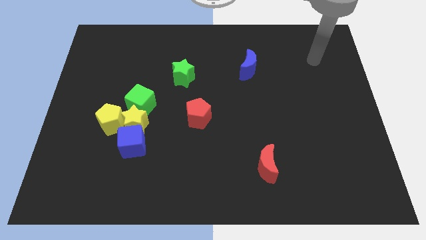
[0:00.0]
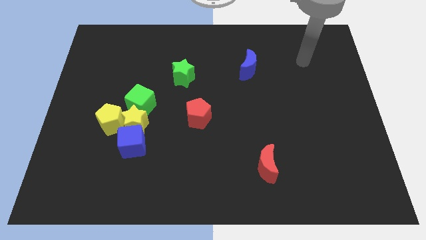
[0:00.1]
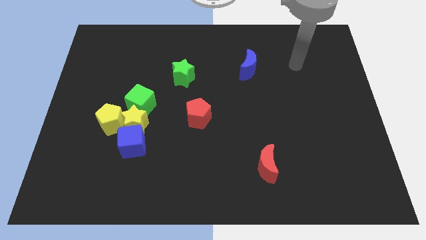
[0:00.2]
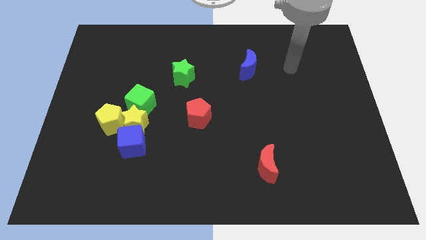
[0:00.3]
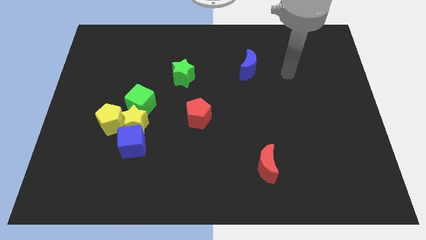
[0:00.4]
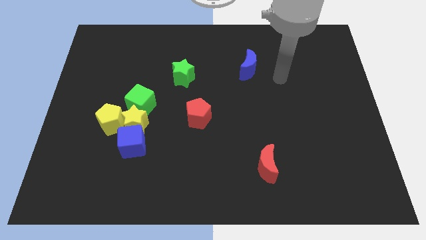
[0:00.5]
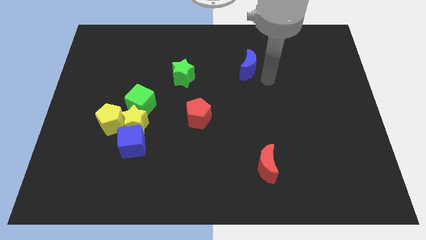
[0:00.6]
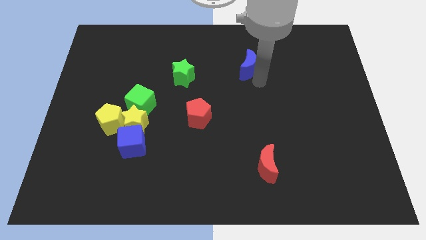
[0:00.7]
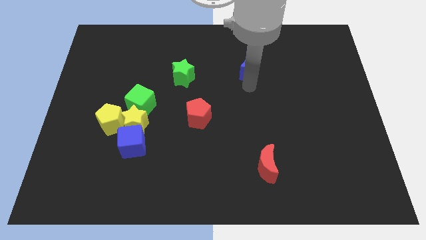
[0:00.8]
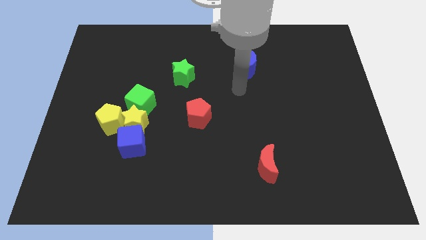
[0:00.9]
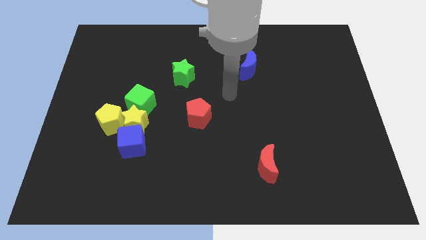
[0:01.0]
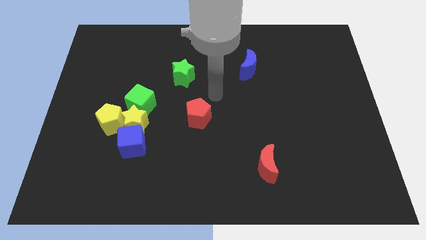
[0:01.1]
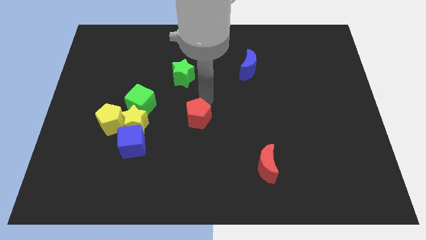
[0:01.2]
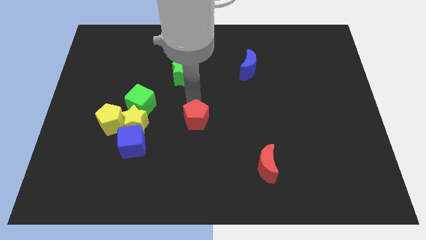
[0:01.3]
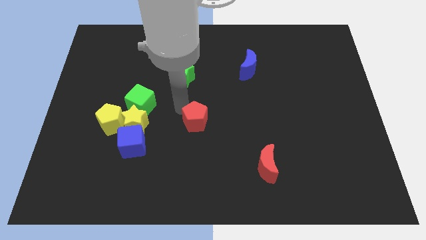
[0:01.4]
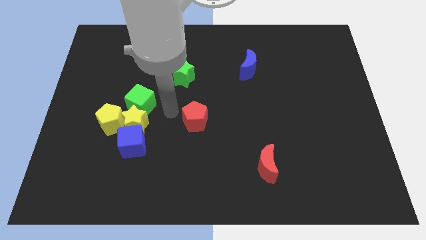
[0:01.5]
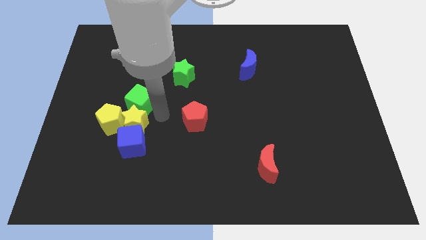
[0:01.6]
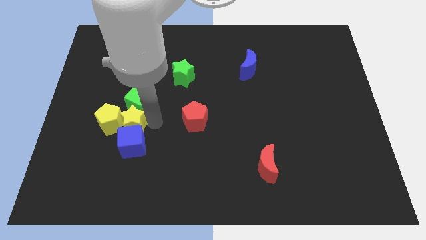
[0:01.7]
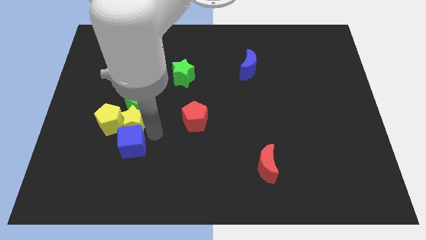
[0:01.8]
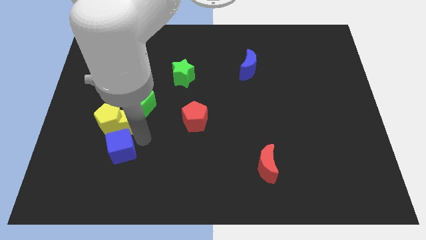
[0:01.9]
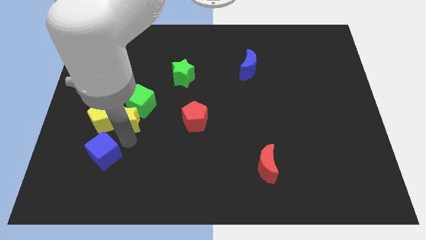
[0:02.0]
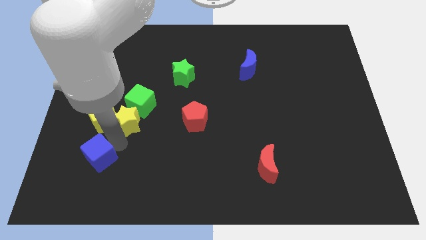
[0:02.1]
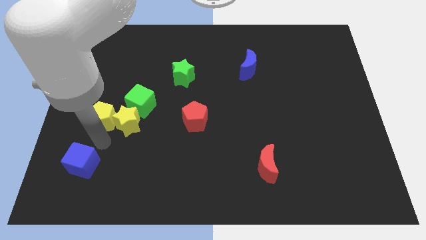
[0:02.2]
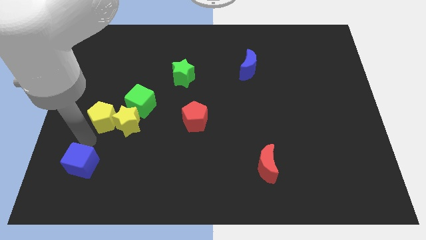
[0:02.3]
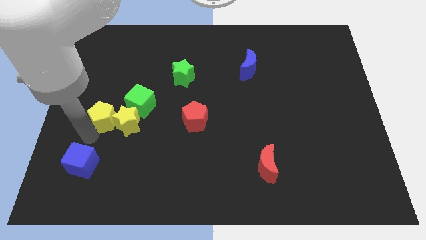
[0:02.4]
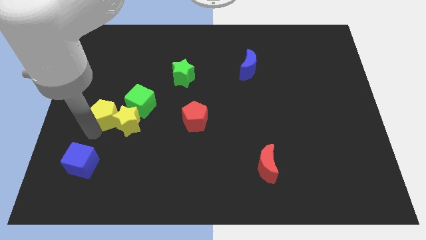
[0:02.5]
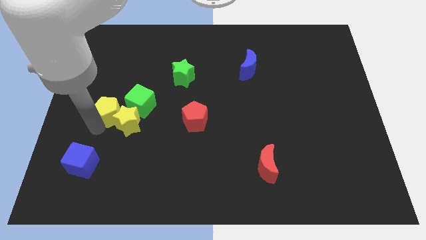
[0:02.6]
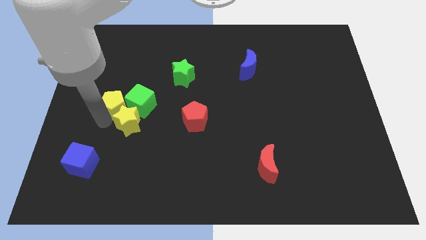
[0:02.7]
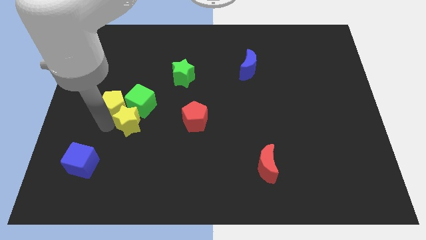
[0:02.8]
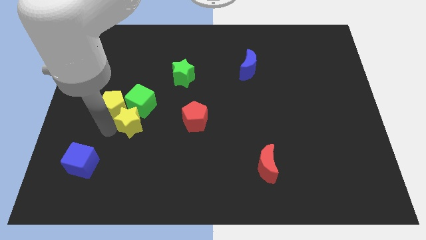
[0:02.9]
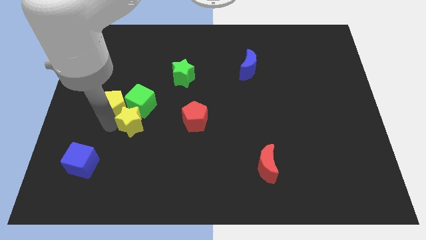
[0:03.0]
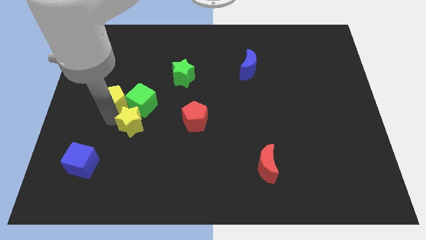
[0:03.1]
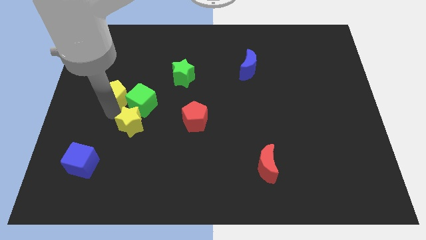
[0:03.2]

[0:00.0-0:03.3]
slide the yellow pentagon up a little

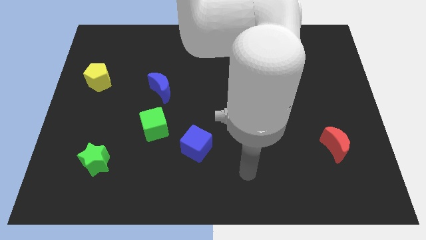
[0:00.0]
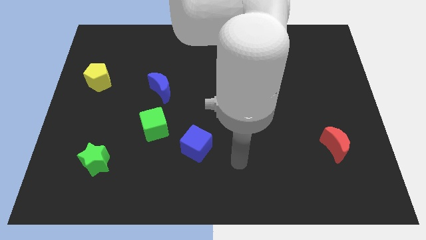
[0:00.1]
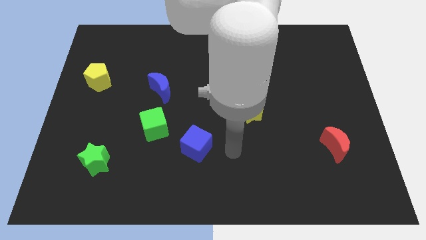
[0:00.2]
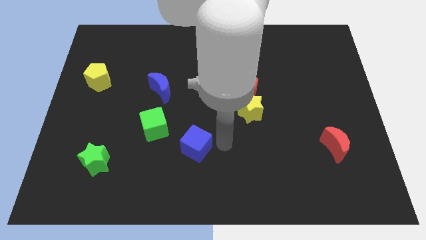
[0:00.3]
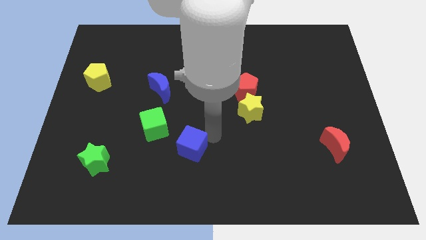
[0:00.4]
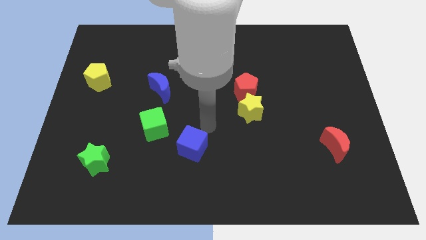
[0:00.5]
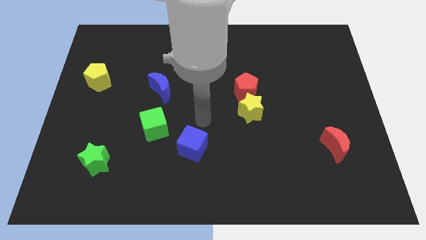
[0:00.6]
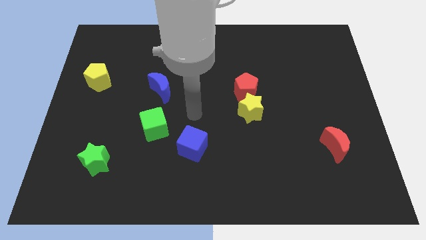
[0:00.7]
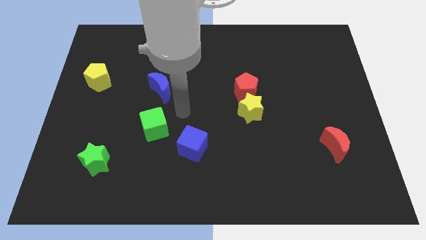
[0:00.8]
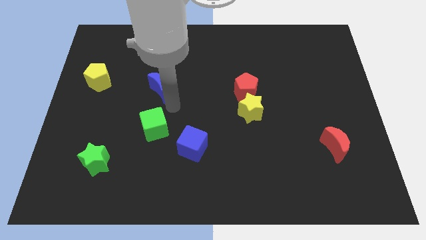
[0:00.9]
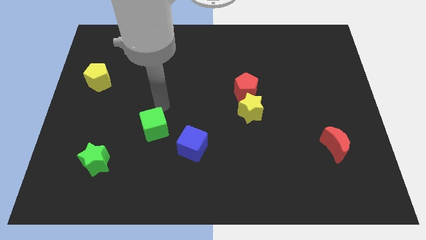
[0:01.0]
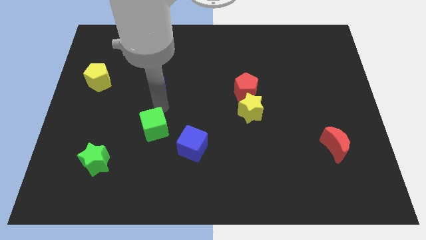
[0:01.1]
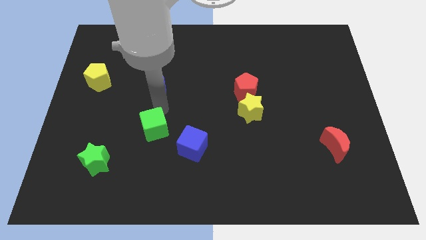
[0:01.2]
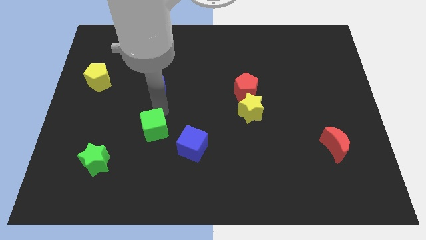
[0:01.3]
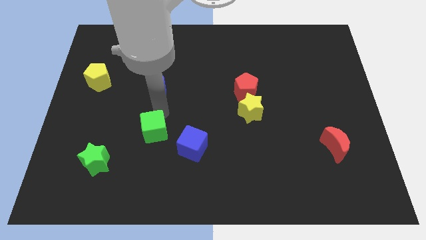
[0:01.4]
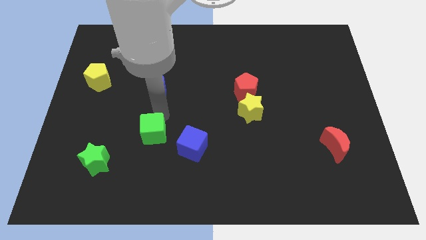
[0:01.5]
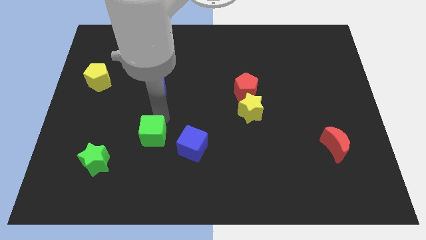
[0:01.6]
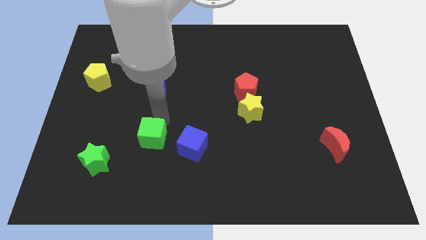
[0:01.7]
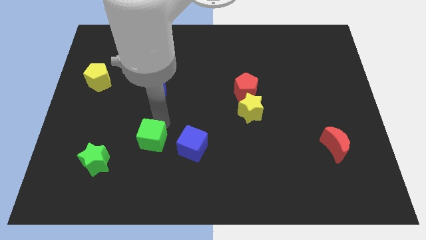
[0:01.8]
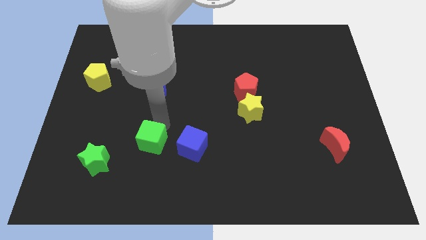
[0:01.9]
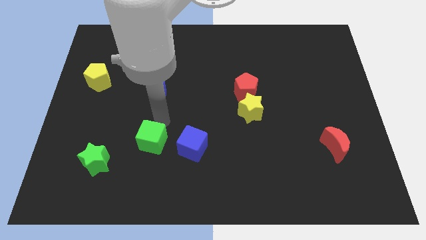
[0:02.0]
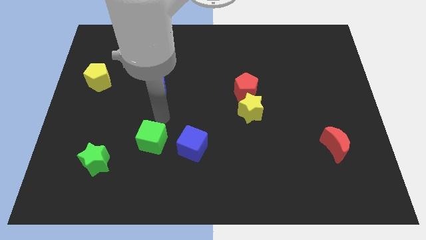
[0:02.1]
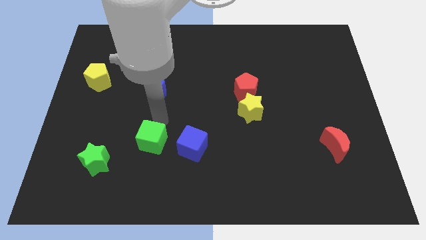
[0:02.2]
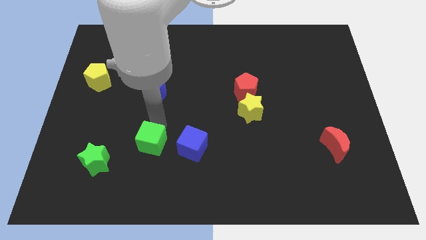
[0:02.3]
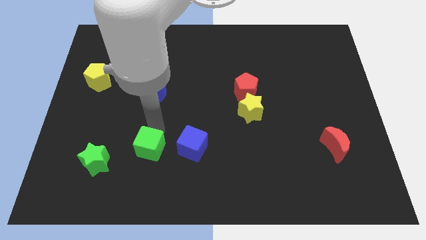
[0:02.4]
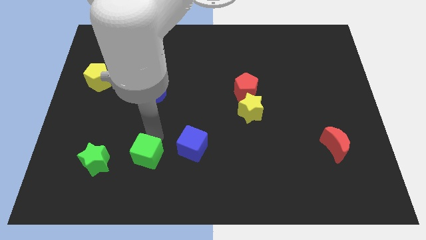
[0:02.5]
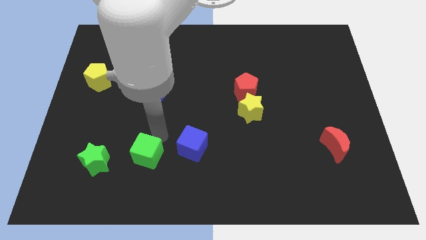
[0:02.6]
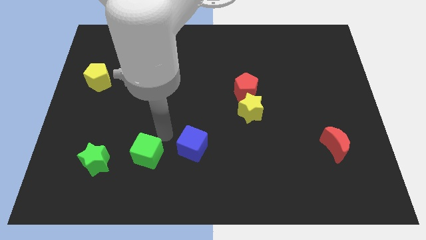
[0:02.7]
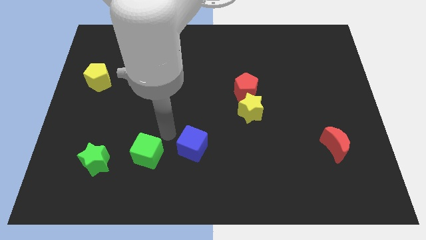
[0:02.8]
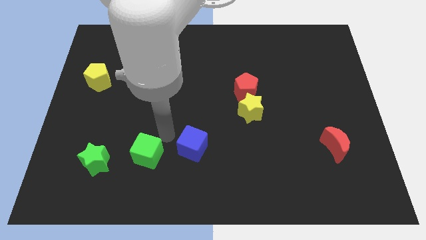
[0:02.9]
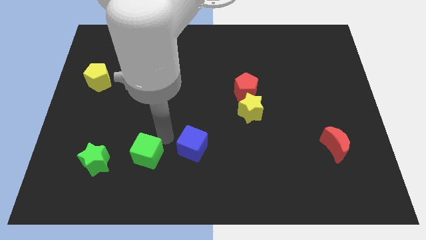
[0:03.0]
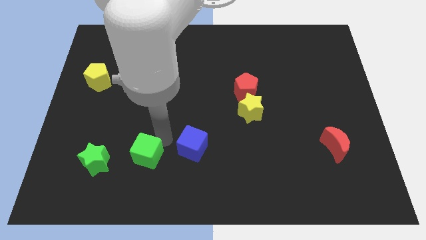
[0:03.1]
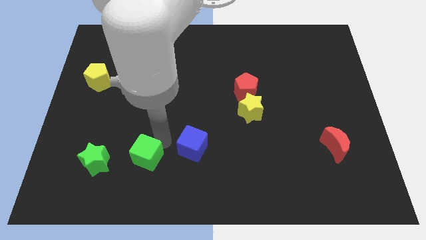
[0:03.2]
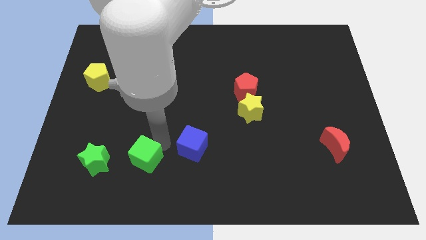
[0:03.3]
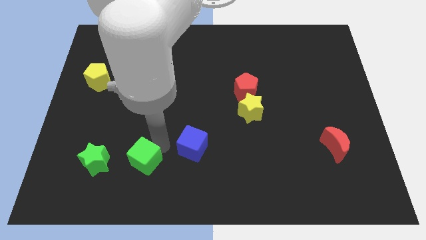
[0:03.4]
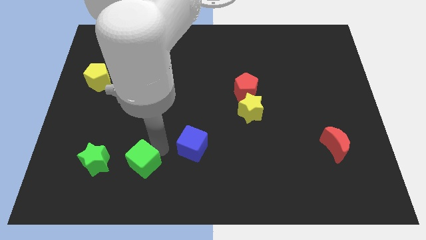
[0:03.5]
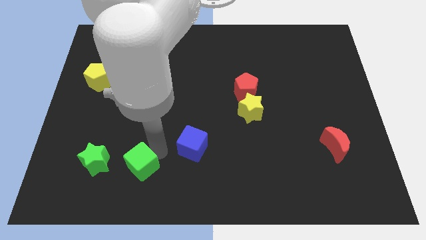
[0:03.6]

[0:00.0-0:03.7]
push the green cube a little down and then left

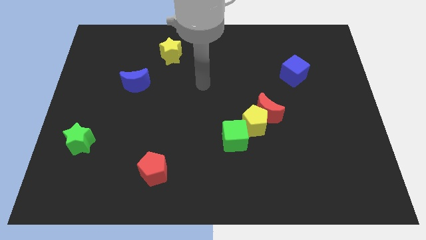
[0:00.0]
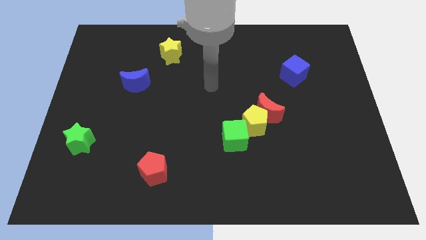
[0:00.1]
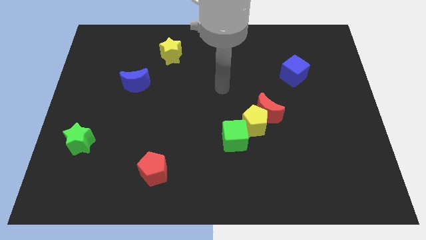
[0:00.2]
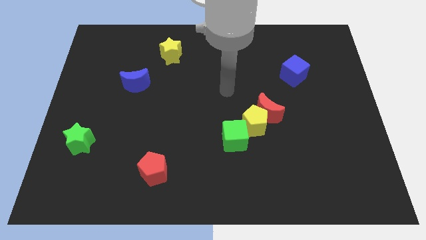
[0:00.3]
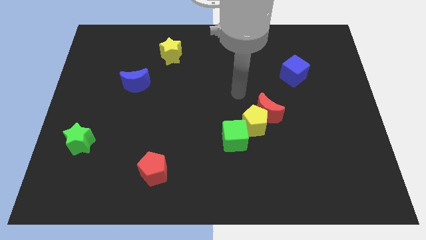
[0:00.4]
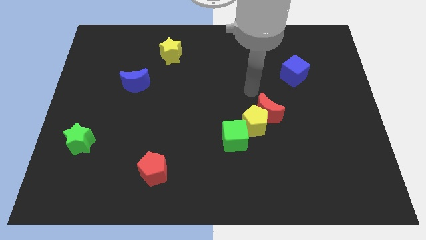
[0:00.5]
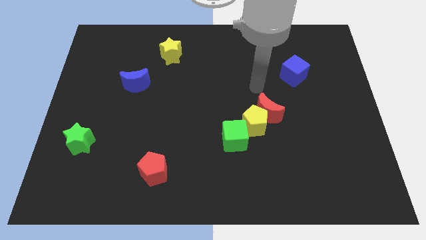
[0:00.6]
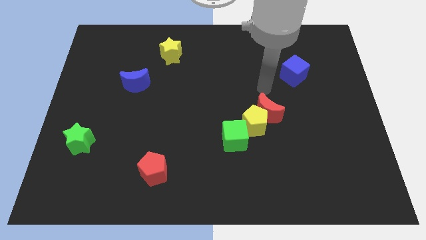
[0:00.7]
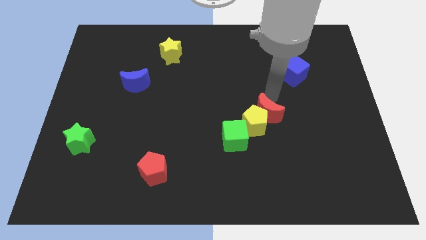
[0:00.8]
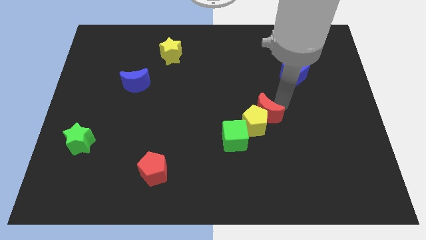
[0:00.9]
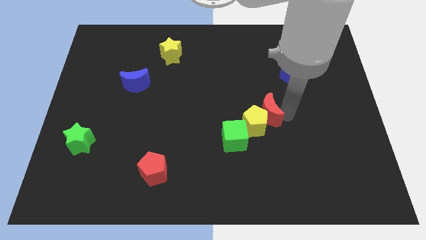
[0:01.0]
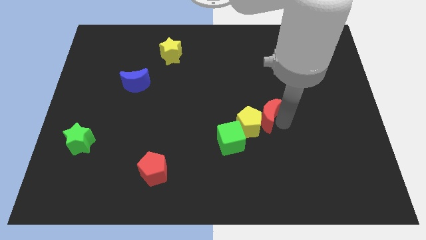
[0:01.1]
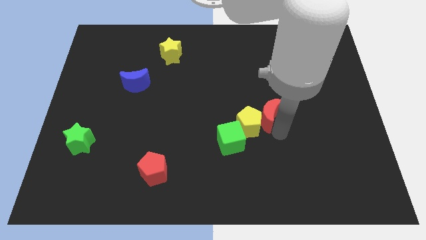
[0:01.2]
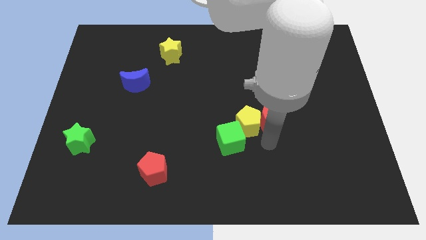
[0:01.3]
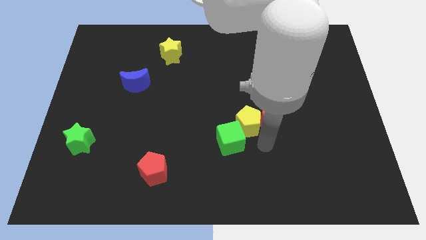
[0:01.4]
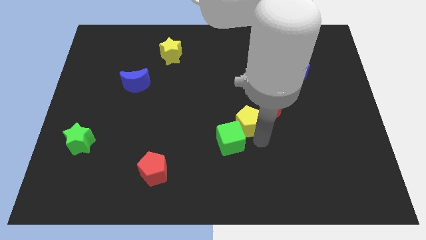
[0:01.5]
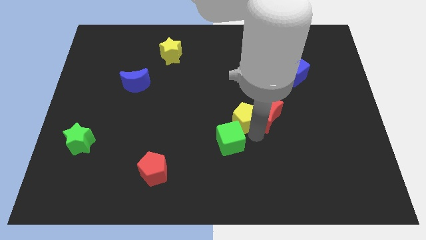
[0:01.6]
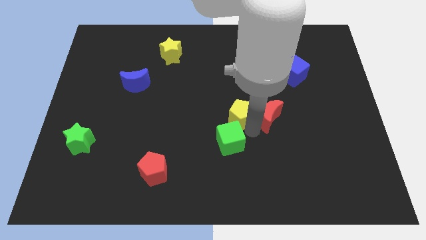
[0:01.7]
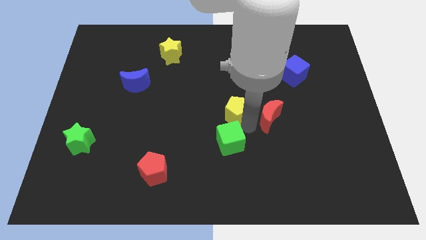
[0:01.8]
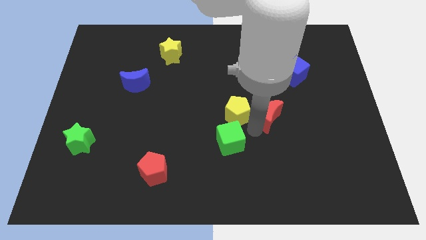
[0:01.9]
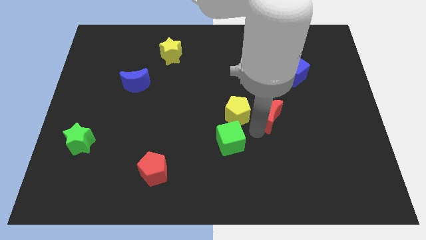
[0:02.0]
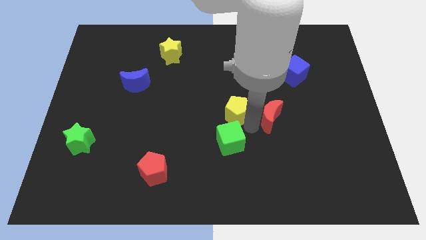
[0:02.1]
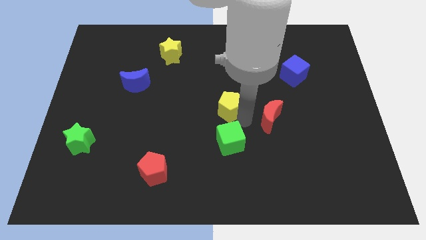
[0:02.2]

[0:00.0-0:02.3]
slightly push the yellow pentagon up and then left
